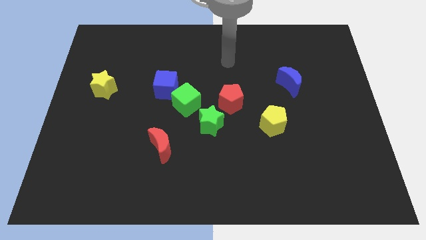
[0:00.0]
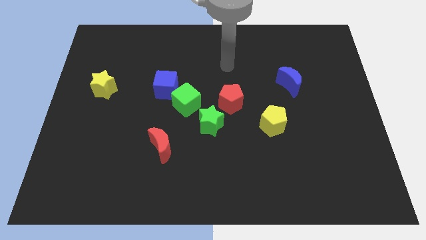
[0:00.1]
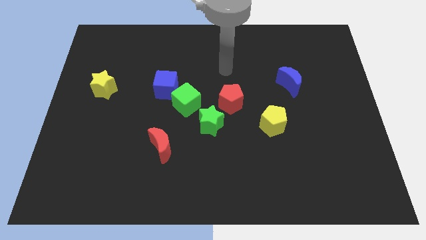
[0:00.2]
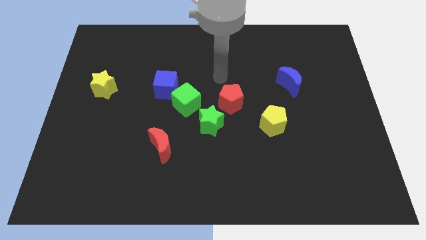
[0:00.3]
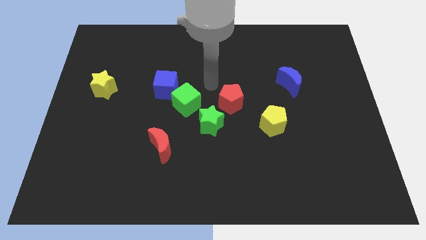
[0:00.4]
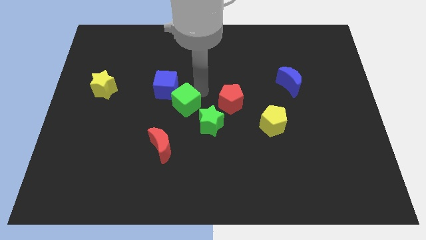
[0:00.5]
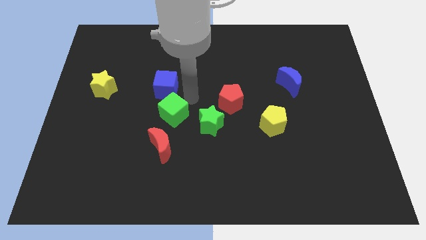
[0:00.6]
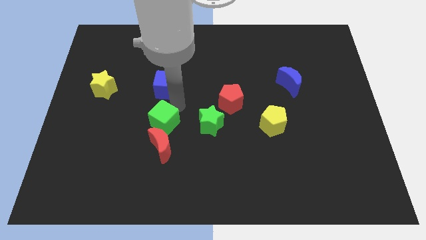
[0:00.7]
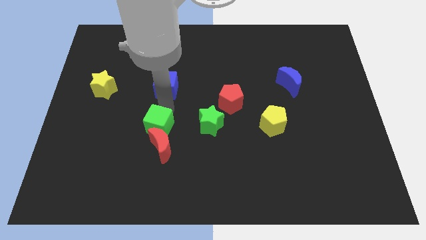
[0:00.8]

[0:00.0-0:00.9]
separate the blue cube from the green cube

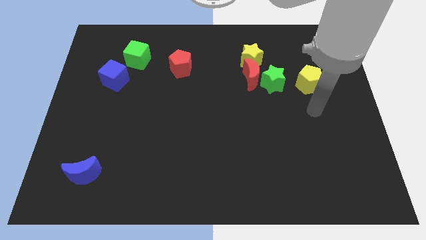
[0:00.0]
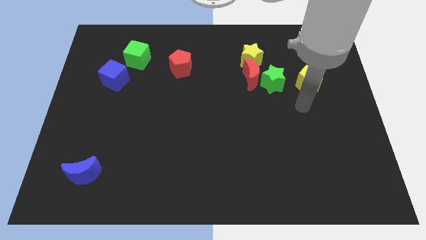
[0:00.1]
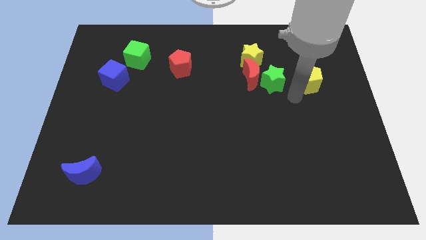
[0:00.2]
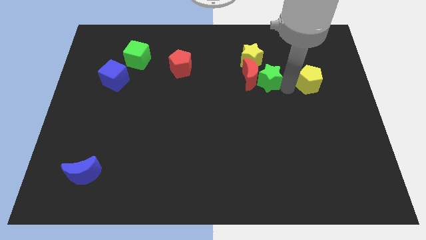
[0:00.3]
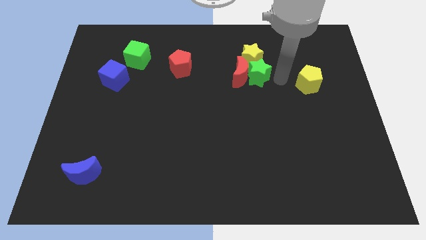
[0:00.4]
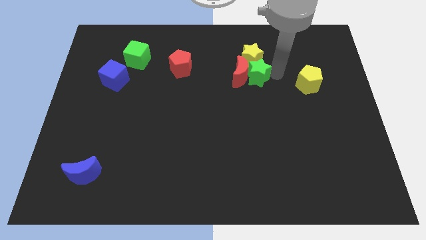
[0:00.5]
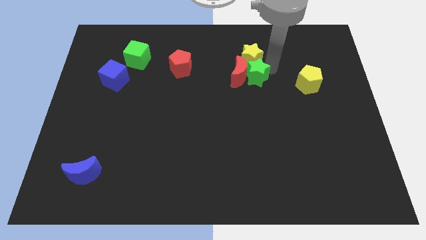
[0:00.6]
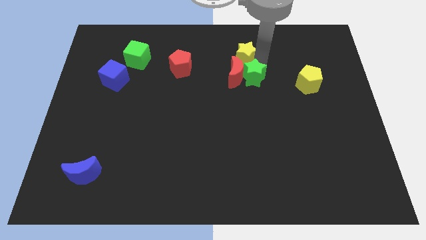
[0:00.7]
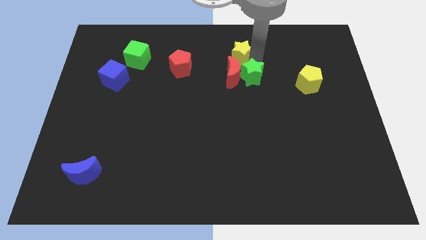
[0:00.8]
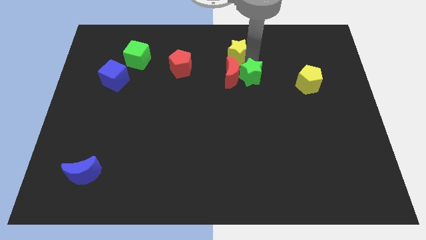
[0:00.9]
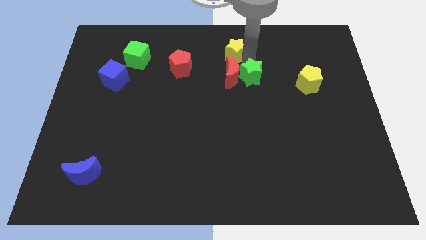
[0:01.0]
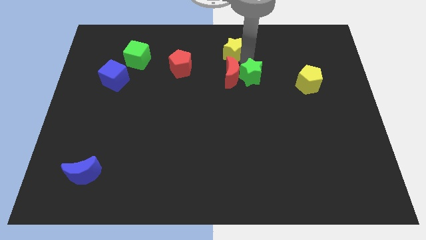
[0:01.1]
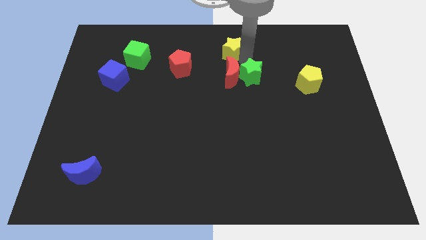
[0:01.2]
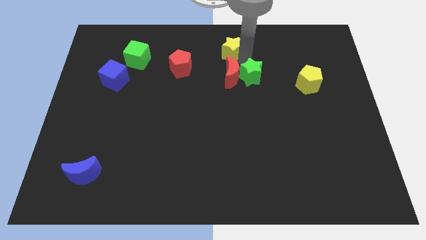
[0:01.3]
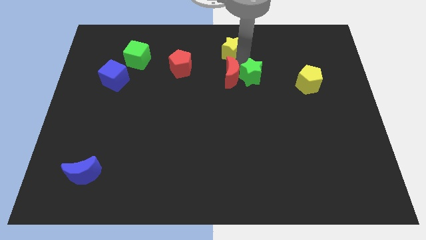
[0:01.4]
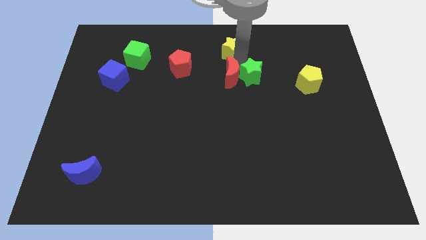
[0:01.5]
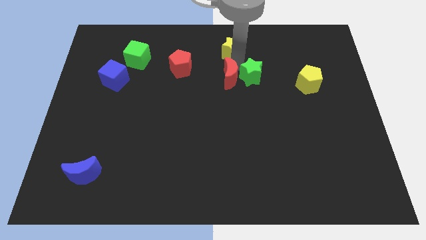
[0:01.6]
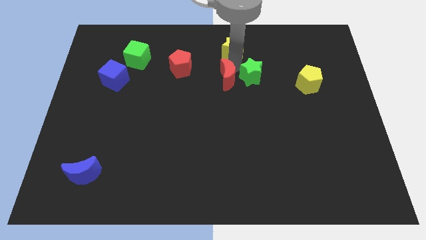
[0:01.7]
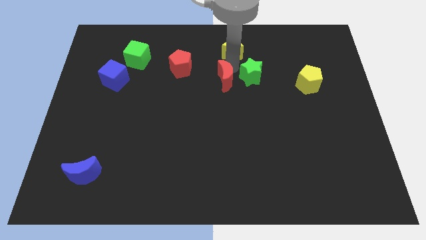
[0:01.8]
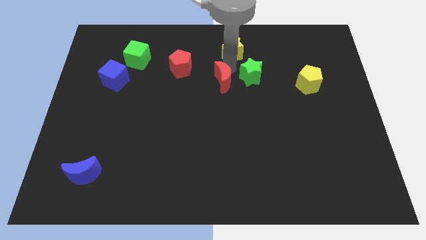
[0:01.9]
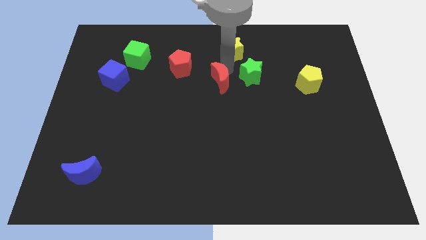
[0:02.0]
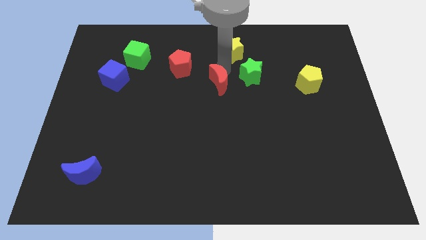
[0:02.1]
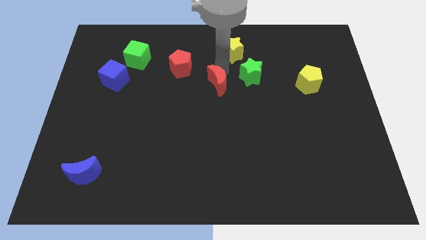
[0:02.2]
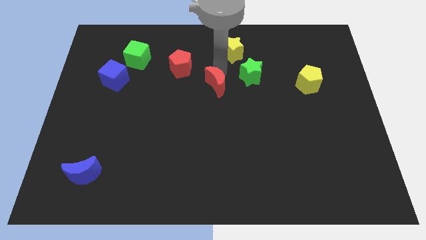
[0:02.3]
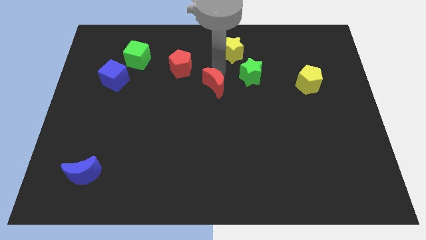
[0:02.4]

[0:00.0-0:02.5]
pull the red moon apart from the green star and yellow star

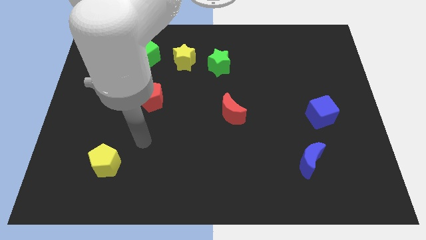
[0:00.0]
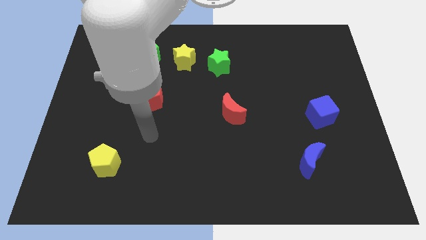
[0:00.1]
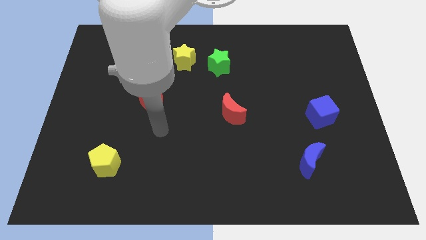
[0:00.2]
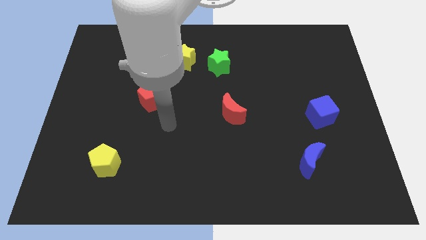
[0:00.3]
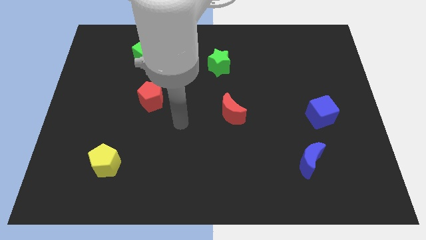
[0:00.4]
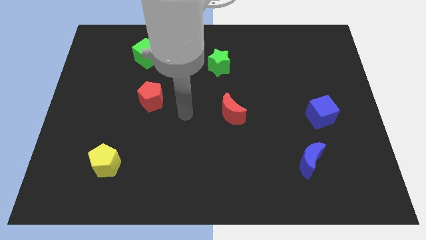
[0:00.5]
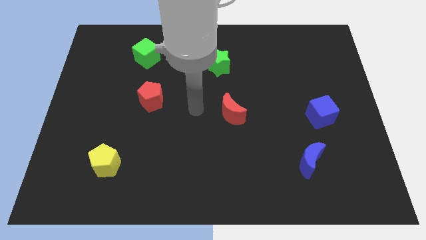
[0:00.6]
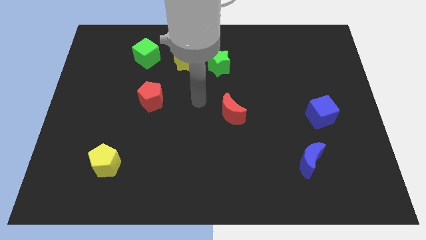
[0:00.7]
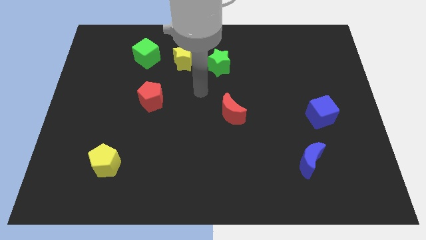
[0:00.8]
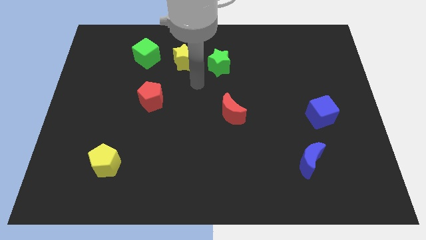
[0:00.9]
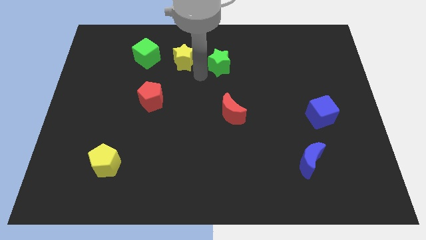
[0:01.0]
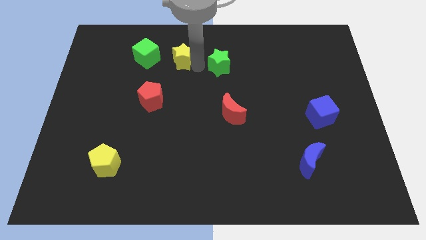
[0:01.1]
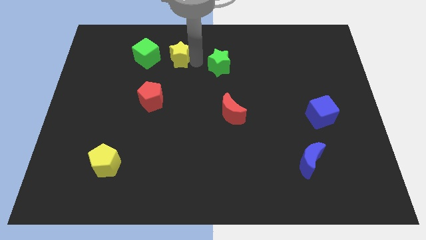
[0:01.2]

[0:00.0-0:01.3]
separate the green star from the yellow star

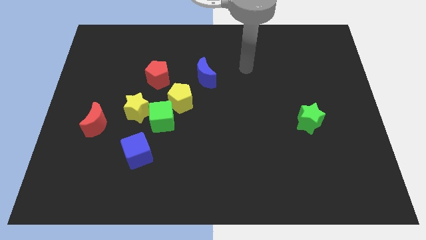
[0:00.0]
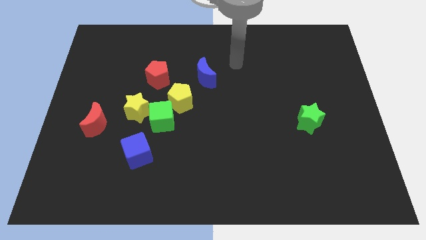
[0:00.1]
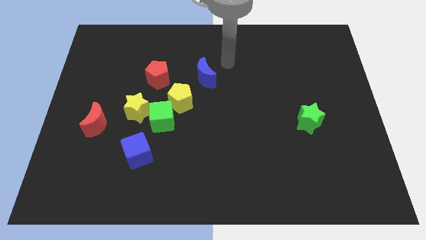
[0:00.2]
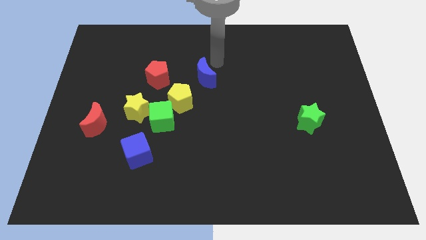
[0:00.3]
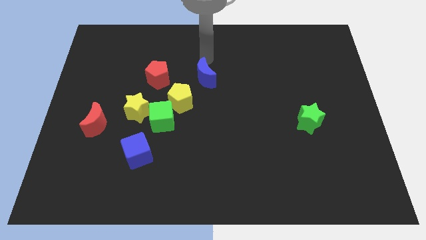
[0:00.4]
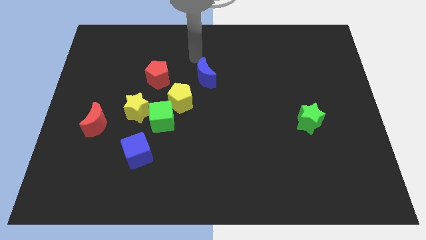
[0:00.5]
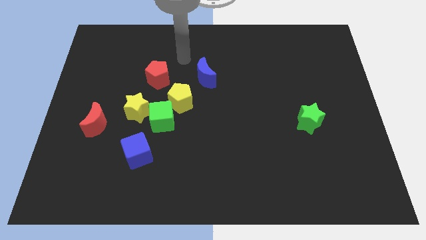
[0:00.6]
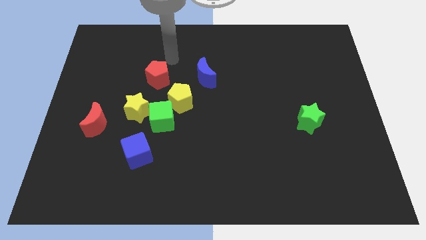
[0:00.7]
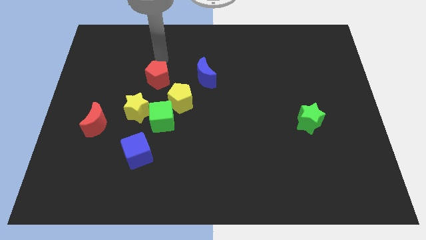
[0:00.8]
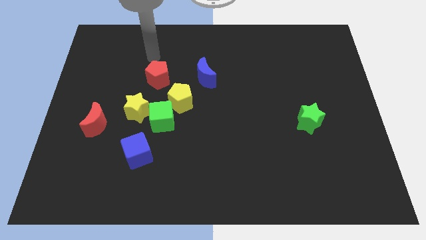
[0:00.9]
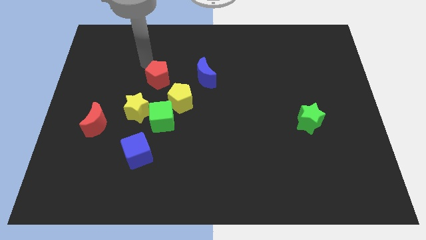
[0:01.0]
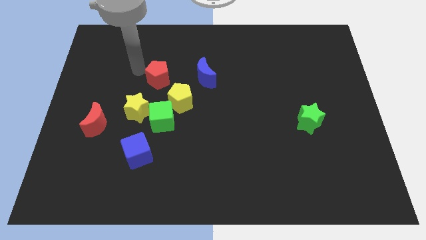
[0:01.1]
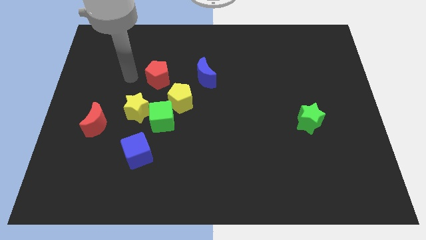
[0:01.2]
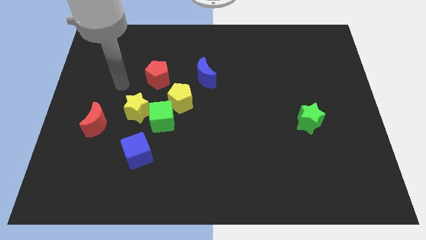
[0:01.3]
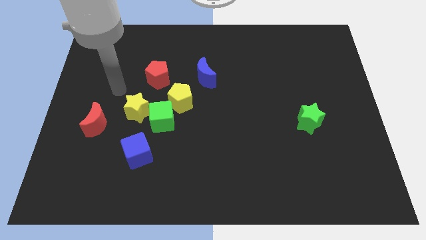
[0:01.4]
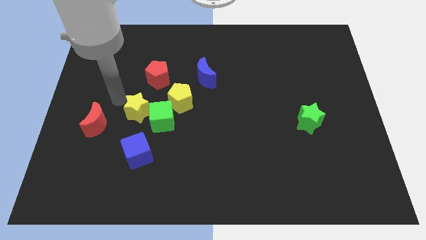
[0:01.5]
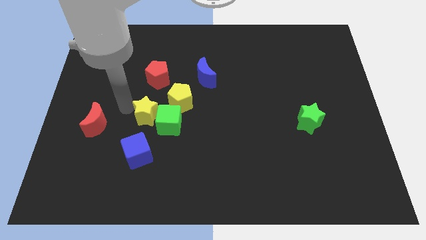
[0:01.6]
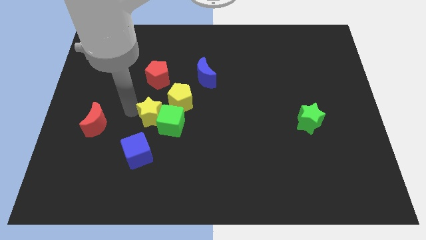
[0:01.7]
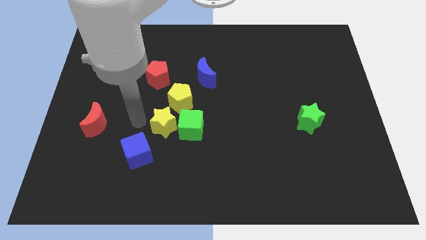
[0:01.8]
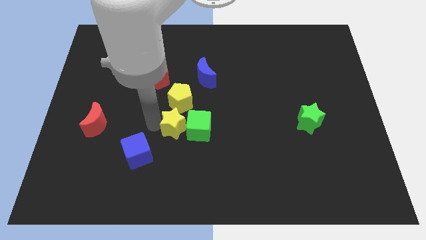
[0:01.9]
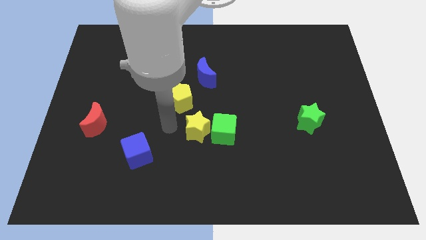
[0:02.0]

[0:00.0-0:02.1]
separate the green cube from the yellow star, yellow pentagon, and blue cube

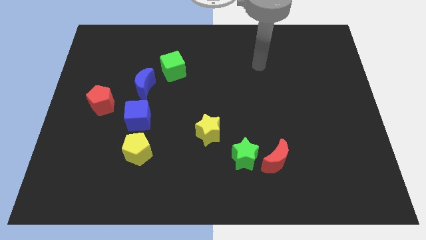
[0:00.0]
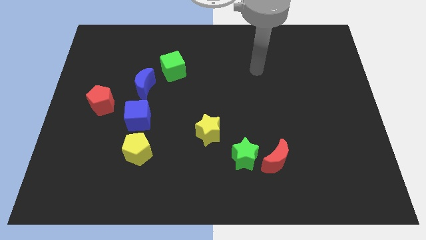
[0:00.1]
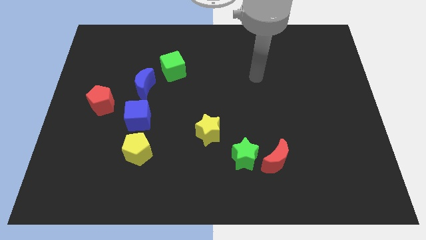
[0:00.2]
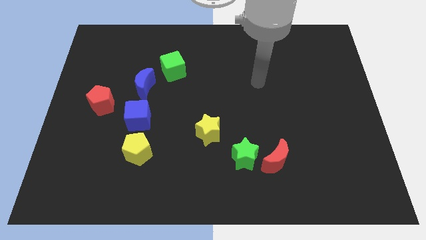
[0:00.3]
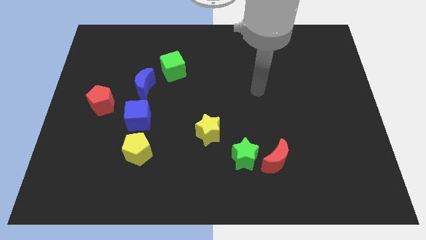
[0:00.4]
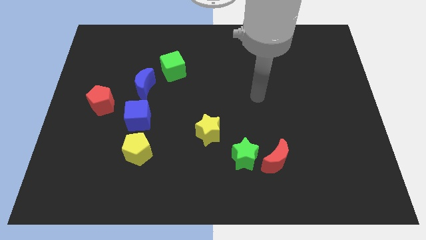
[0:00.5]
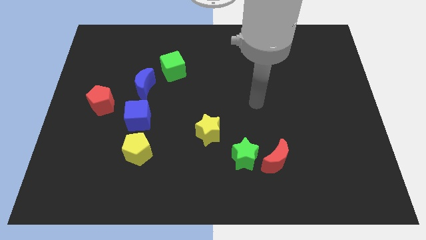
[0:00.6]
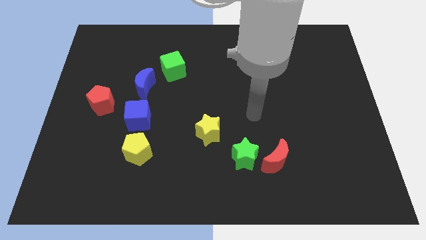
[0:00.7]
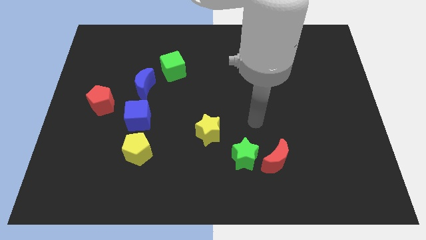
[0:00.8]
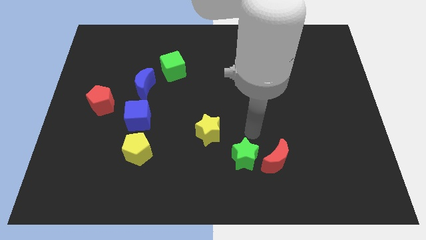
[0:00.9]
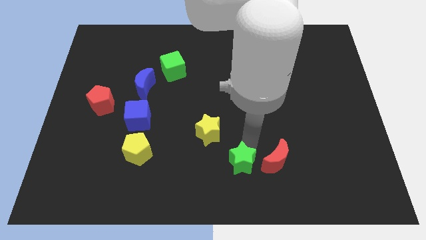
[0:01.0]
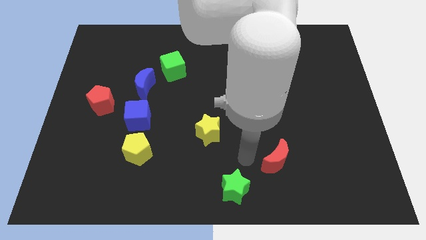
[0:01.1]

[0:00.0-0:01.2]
separate the red moon from the green star

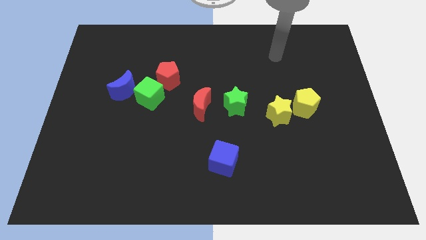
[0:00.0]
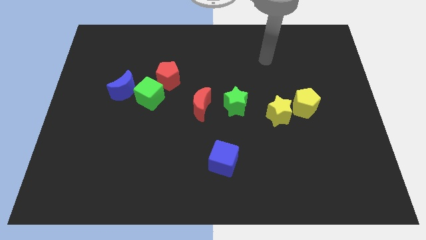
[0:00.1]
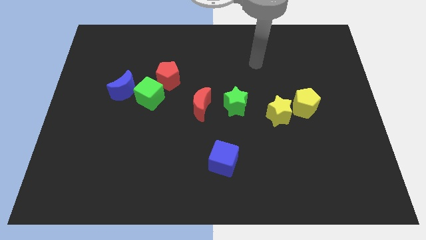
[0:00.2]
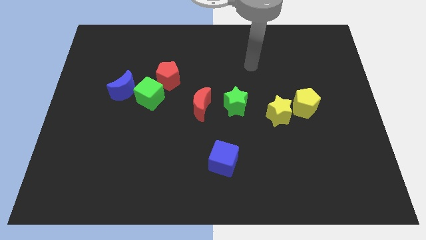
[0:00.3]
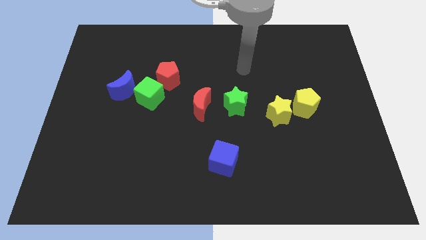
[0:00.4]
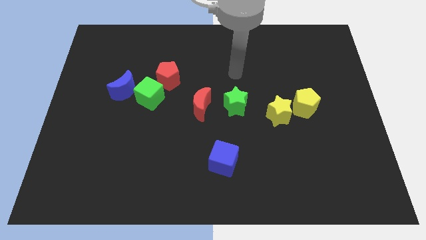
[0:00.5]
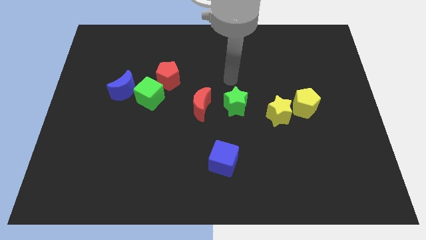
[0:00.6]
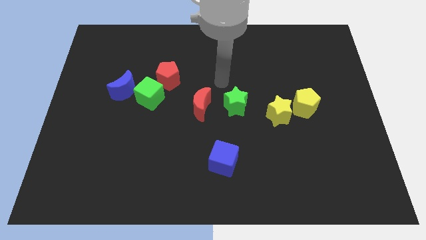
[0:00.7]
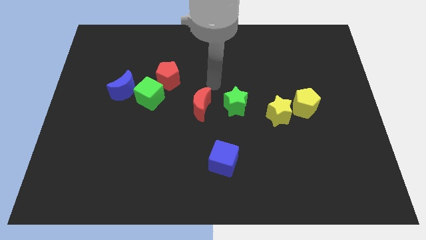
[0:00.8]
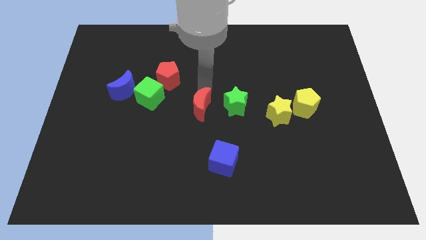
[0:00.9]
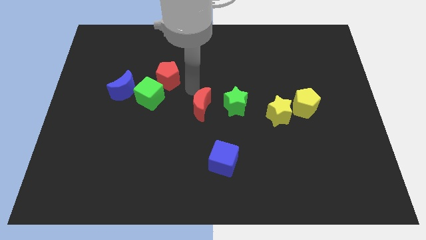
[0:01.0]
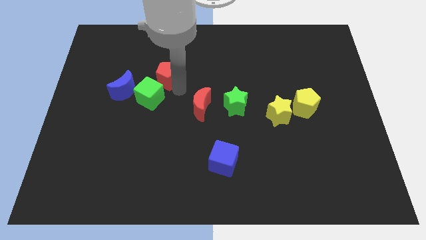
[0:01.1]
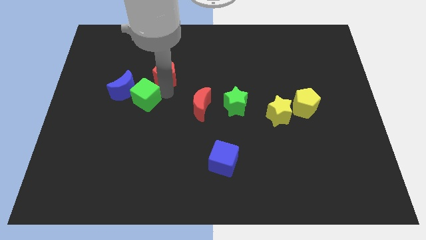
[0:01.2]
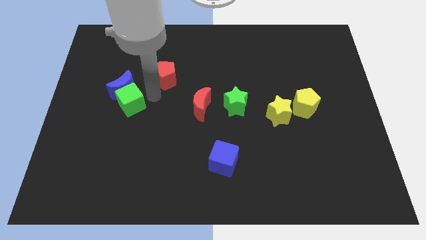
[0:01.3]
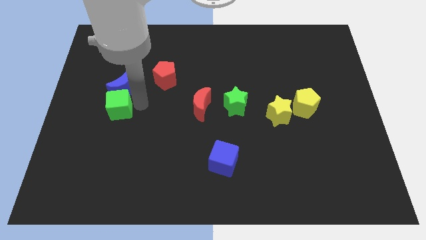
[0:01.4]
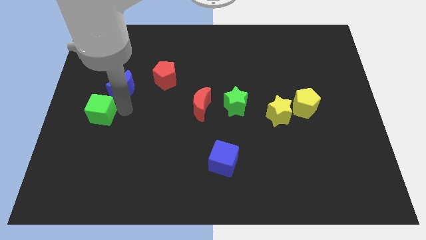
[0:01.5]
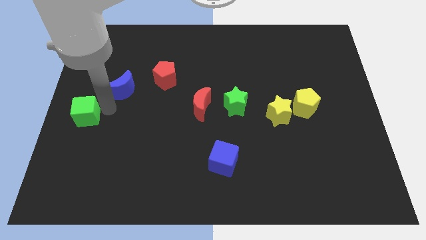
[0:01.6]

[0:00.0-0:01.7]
pull the blue moon apart from the green cube
